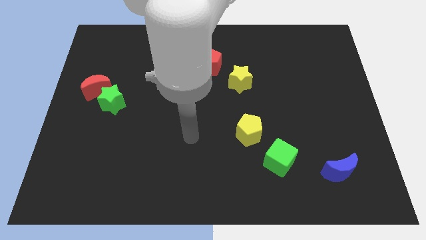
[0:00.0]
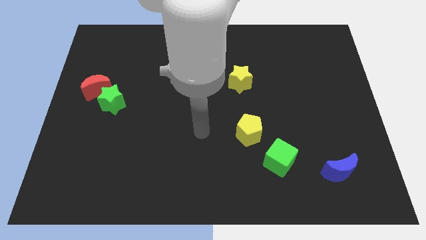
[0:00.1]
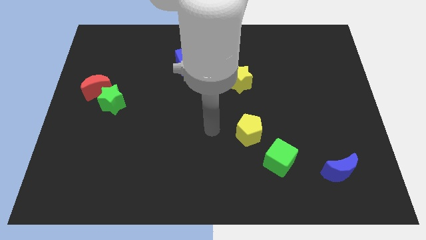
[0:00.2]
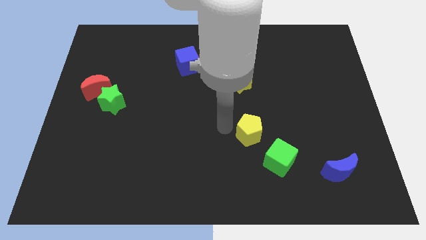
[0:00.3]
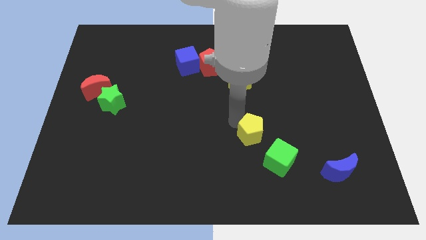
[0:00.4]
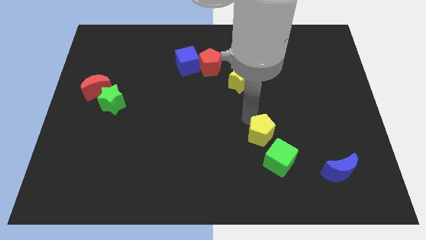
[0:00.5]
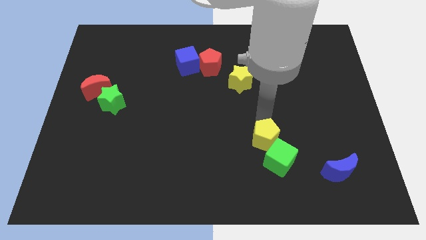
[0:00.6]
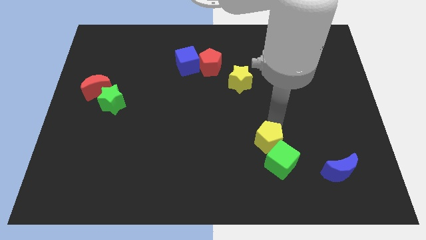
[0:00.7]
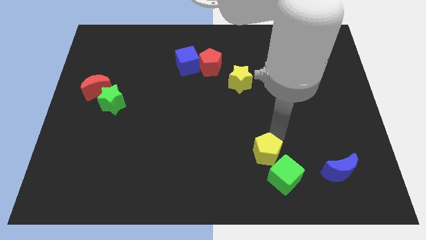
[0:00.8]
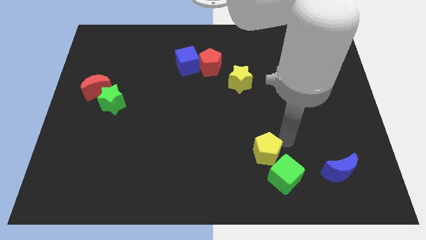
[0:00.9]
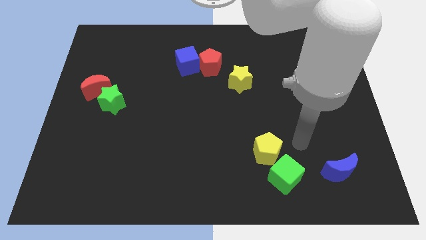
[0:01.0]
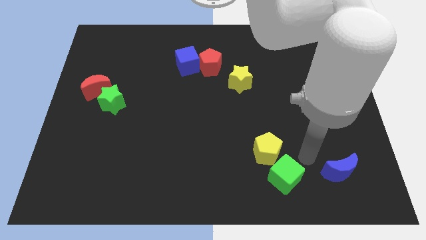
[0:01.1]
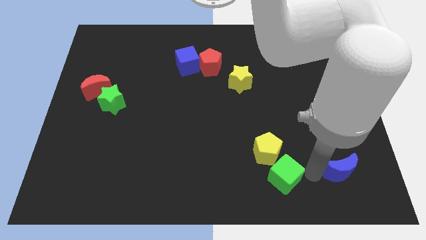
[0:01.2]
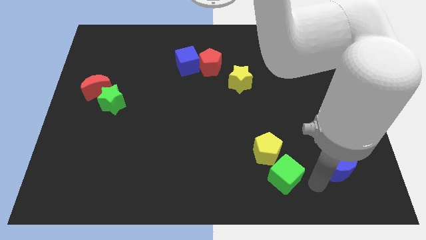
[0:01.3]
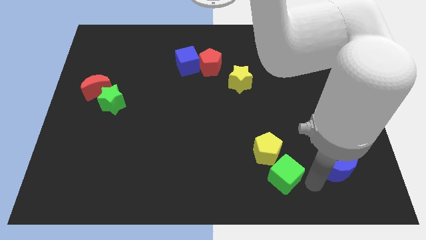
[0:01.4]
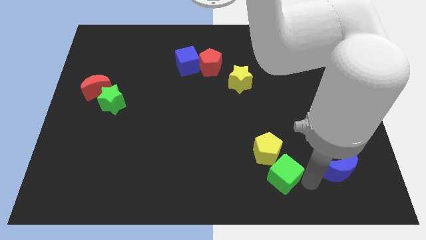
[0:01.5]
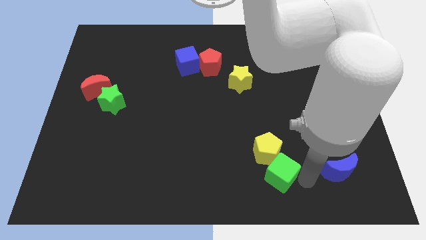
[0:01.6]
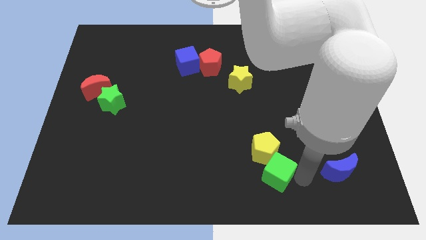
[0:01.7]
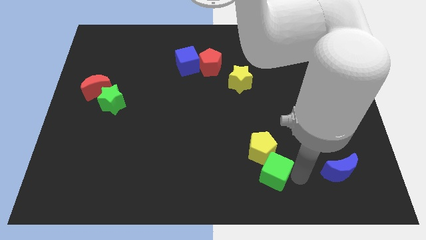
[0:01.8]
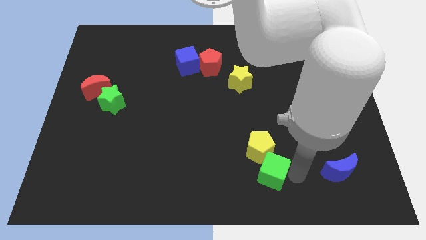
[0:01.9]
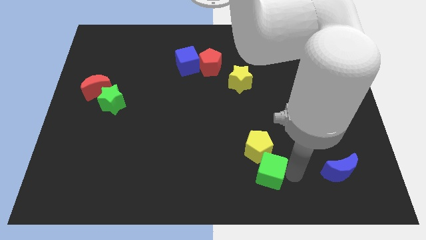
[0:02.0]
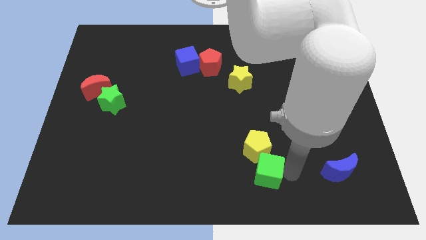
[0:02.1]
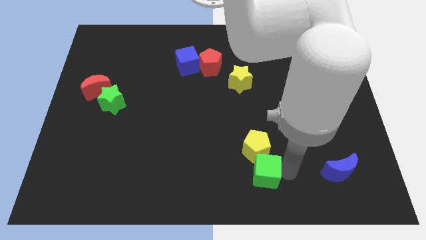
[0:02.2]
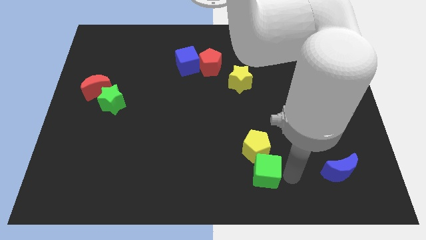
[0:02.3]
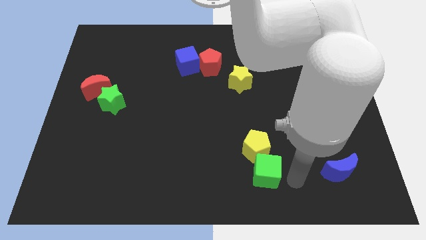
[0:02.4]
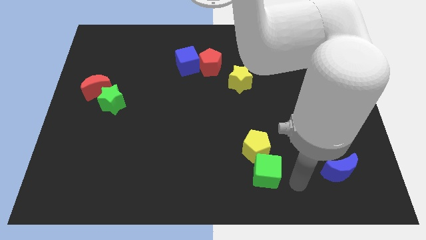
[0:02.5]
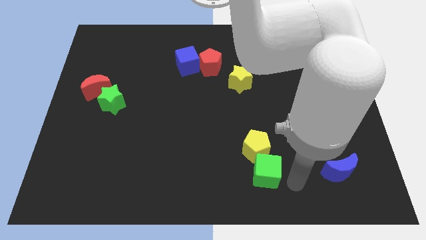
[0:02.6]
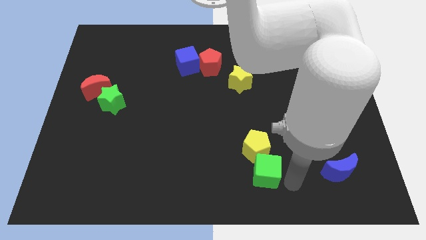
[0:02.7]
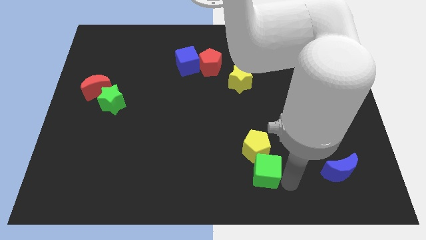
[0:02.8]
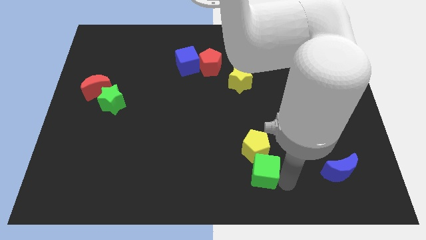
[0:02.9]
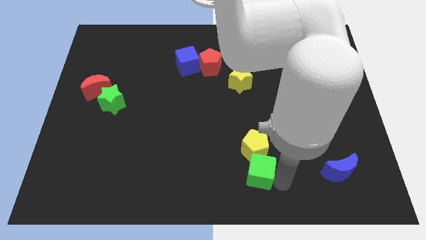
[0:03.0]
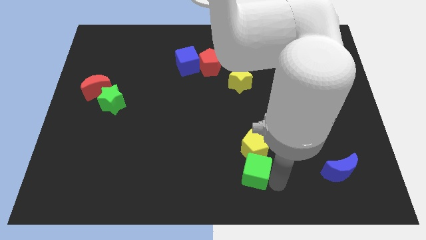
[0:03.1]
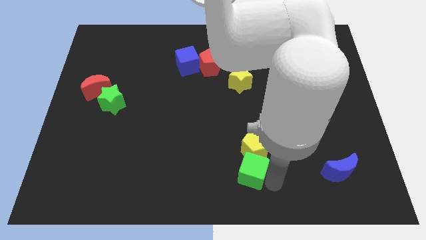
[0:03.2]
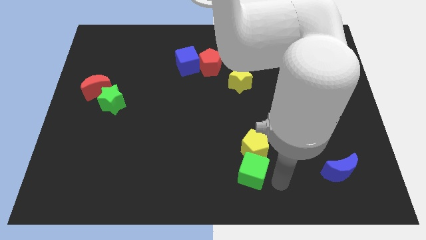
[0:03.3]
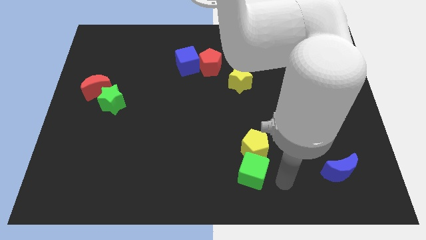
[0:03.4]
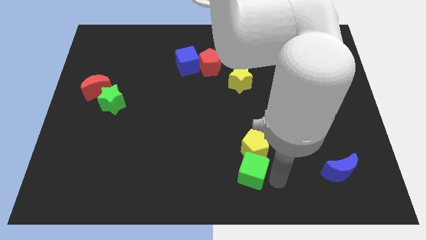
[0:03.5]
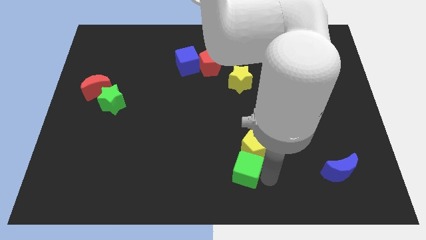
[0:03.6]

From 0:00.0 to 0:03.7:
slide the green cube somewhat left

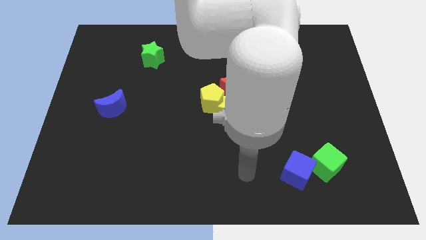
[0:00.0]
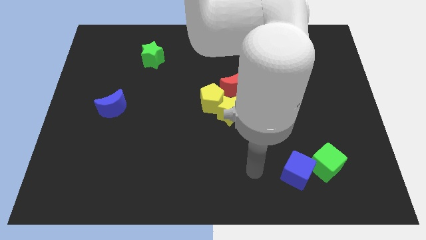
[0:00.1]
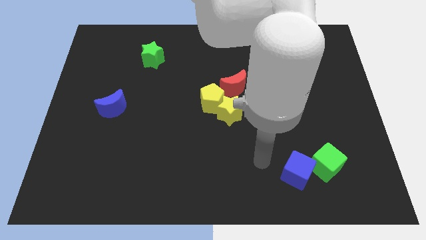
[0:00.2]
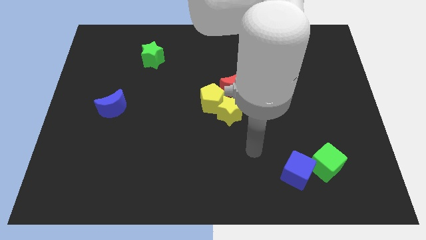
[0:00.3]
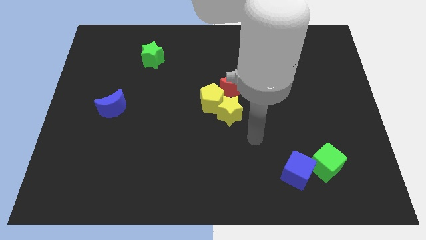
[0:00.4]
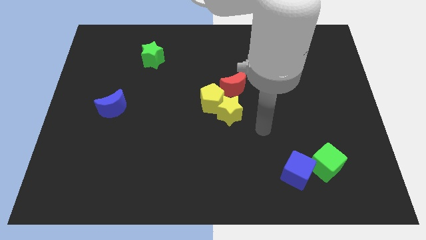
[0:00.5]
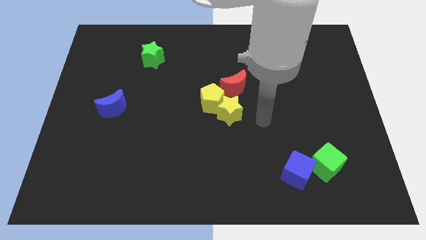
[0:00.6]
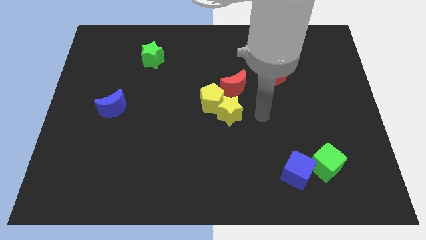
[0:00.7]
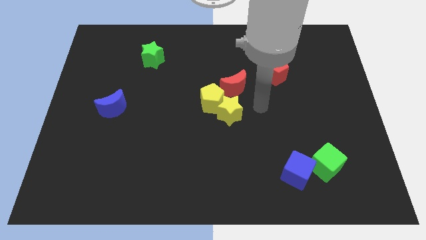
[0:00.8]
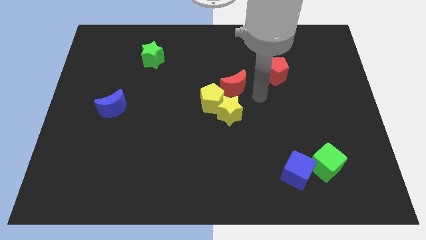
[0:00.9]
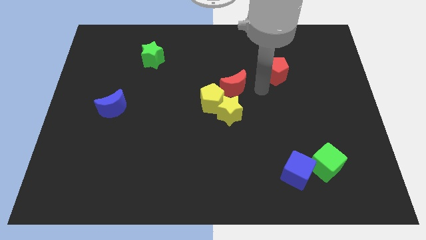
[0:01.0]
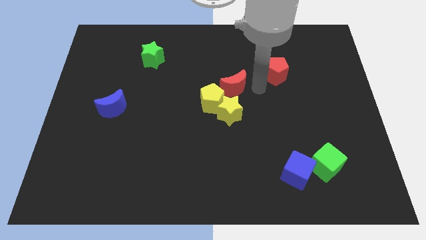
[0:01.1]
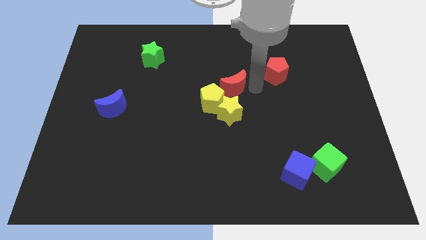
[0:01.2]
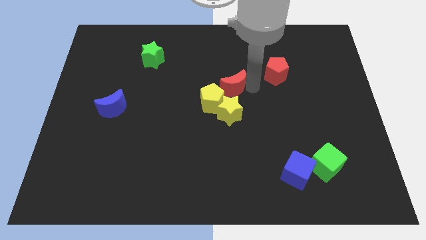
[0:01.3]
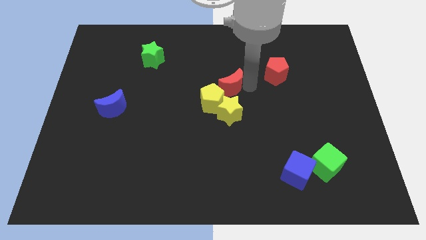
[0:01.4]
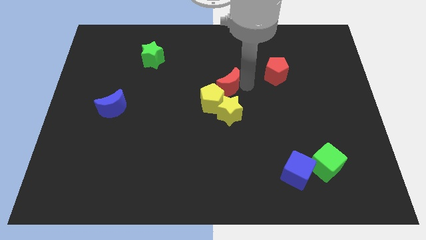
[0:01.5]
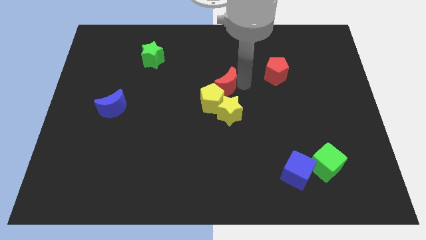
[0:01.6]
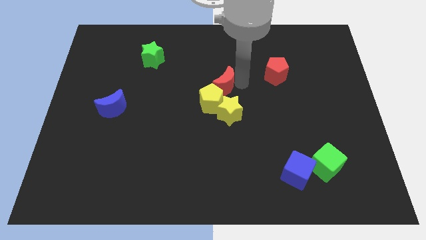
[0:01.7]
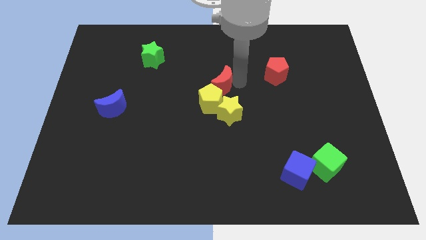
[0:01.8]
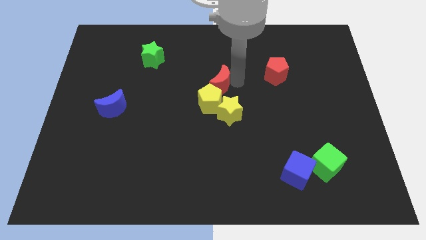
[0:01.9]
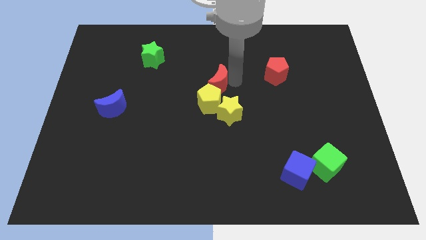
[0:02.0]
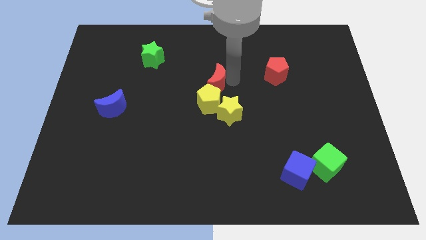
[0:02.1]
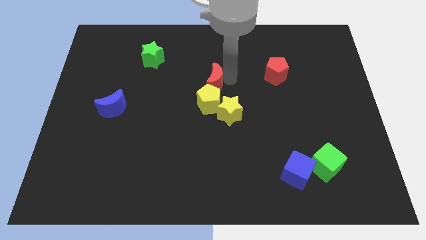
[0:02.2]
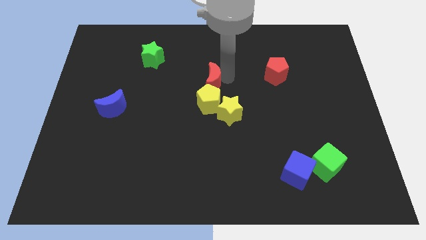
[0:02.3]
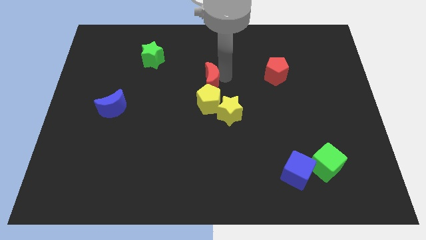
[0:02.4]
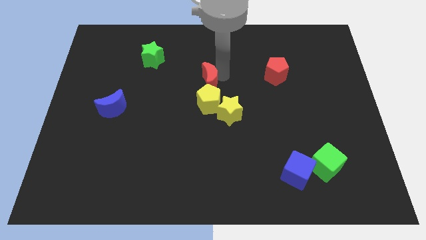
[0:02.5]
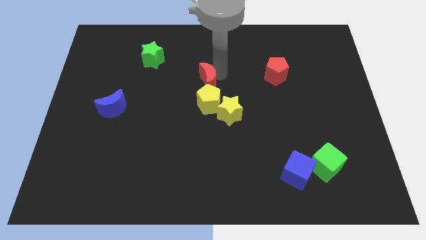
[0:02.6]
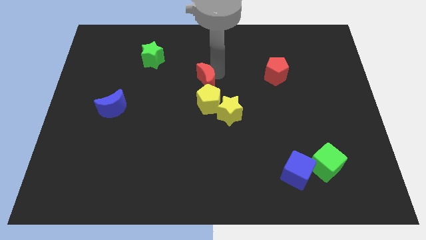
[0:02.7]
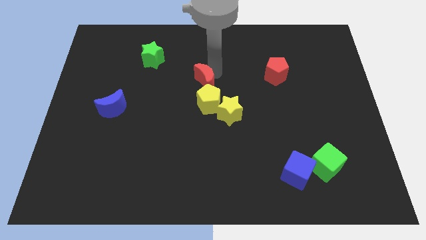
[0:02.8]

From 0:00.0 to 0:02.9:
slightly move the red moon to the left

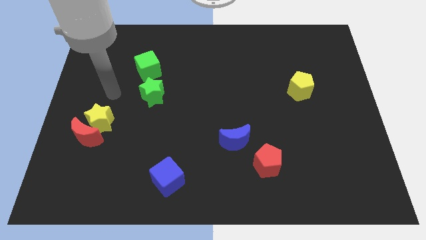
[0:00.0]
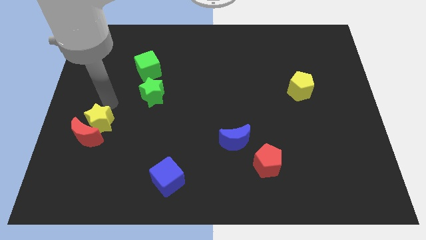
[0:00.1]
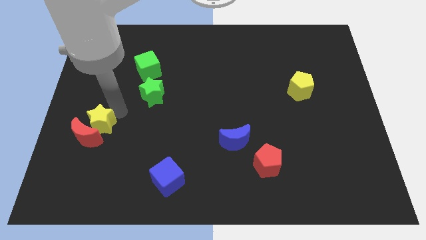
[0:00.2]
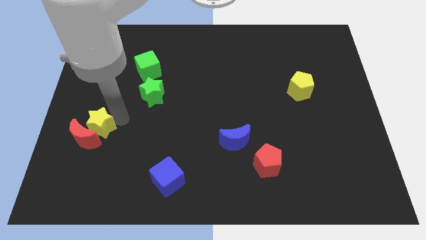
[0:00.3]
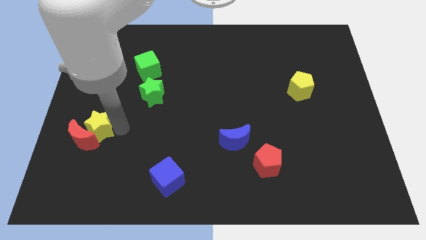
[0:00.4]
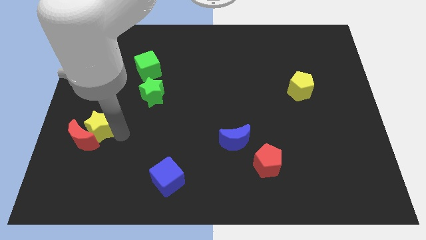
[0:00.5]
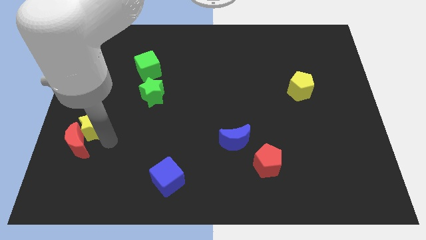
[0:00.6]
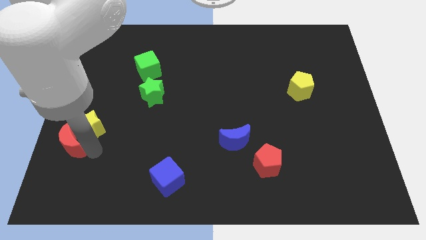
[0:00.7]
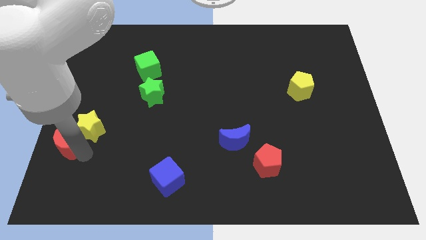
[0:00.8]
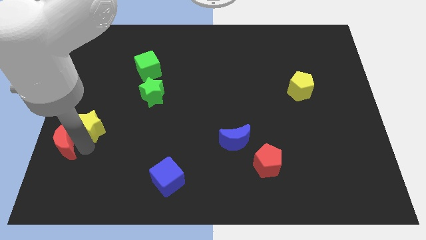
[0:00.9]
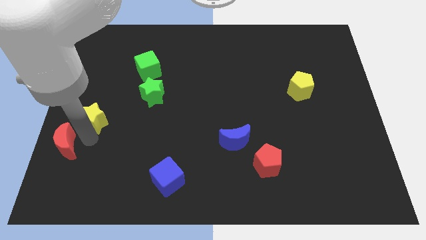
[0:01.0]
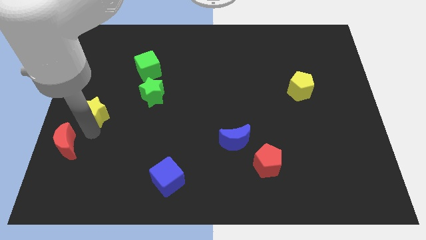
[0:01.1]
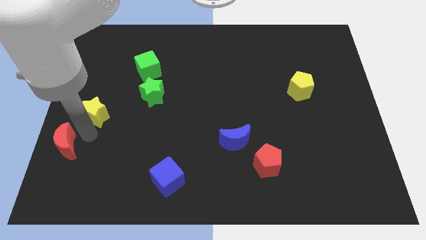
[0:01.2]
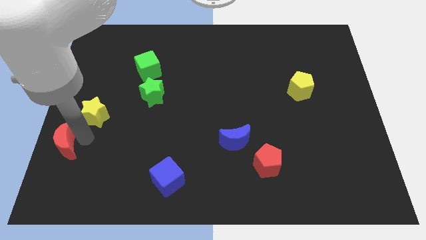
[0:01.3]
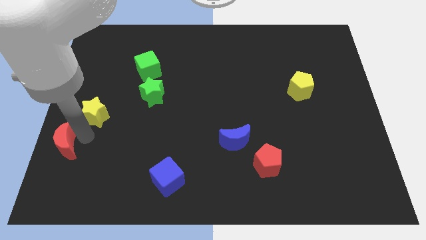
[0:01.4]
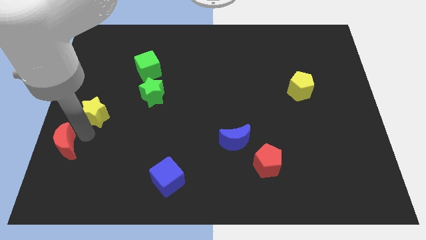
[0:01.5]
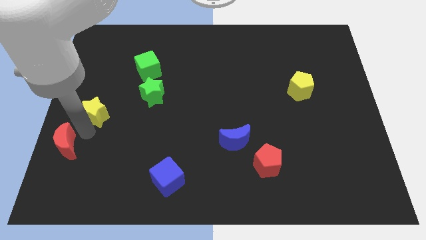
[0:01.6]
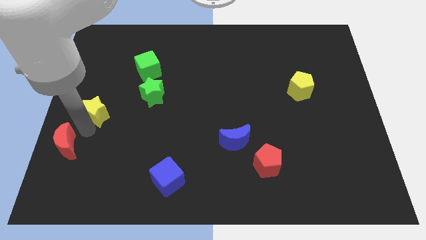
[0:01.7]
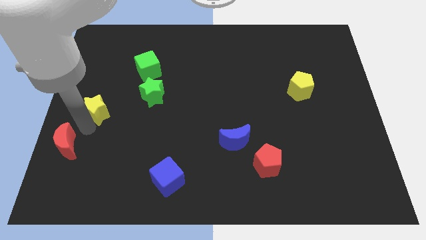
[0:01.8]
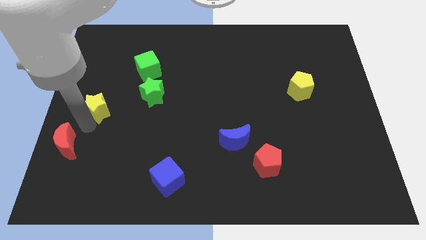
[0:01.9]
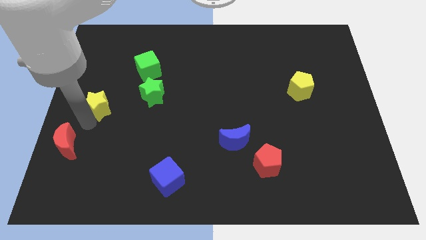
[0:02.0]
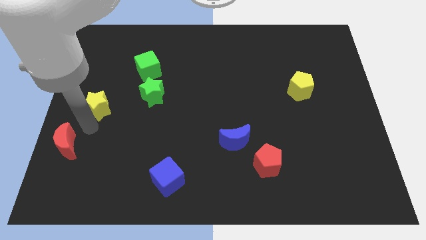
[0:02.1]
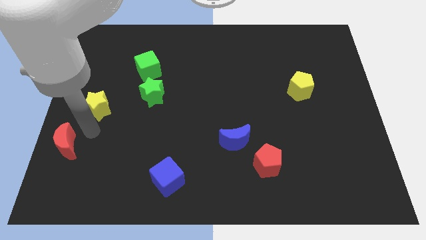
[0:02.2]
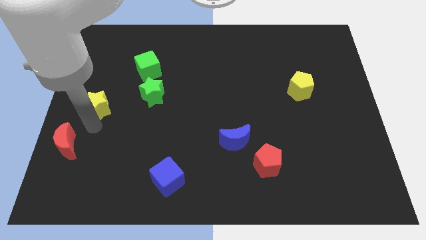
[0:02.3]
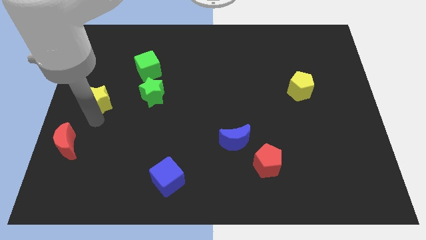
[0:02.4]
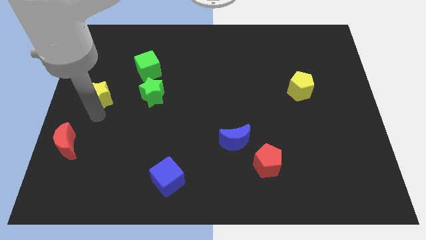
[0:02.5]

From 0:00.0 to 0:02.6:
slide the yellow star somewhat up
